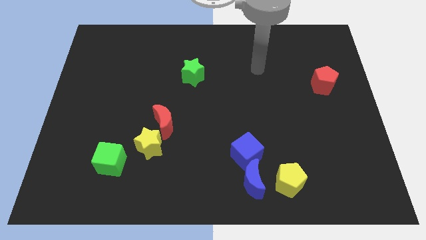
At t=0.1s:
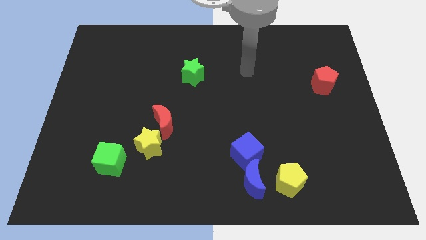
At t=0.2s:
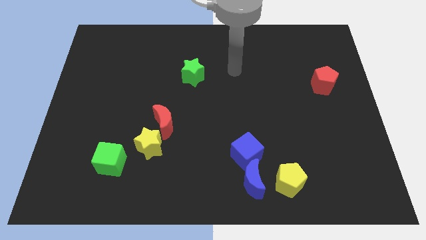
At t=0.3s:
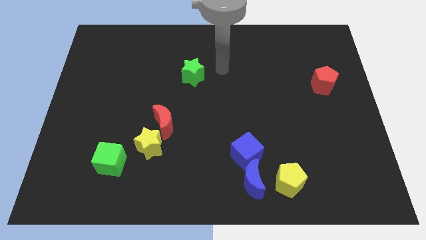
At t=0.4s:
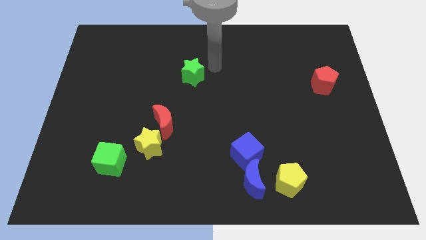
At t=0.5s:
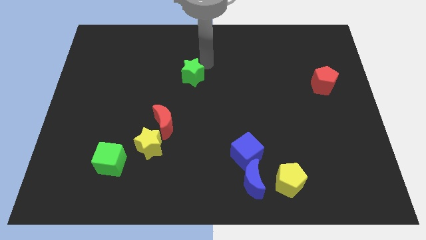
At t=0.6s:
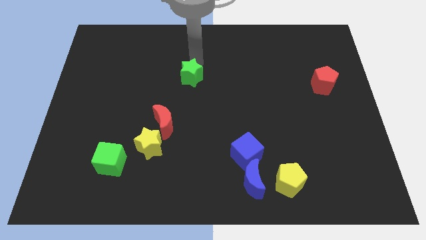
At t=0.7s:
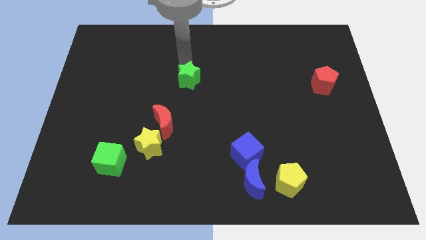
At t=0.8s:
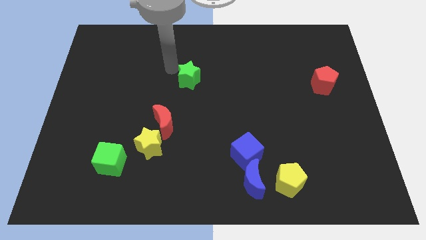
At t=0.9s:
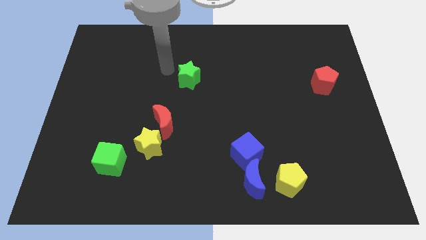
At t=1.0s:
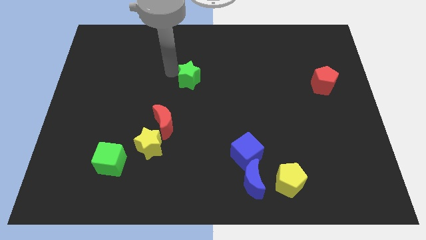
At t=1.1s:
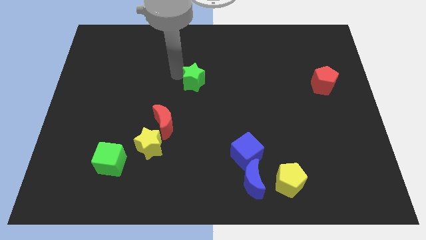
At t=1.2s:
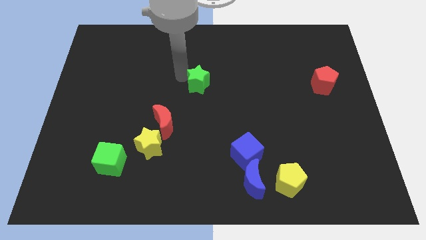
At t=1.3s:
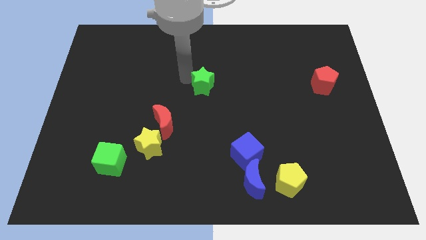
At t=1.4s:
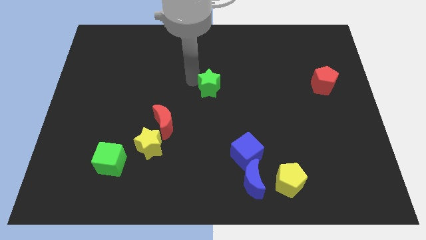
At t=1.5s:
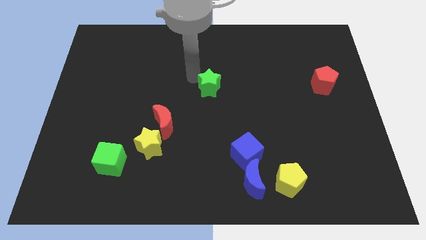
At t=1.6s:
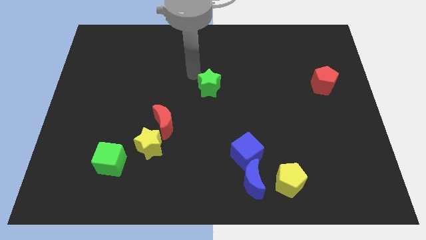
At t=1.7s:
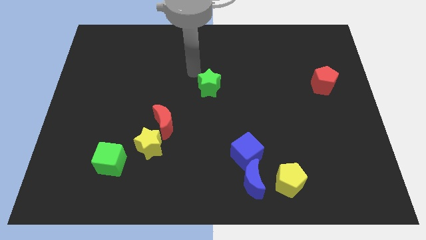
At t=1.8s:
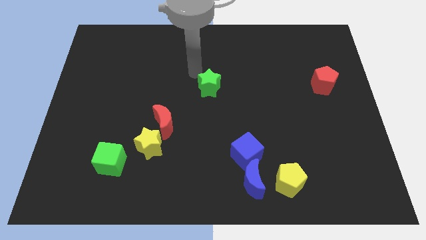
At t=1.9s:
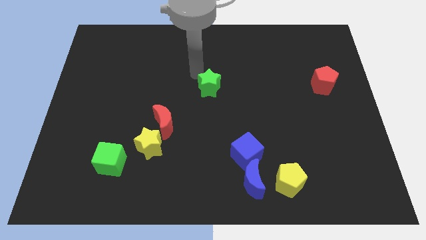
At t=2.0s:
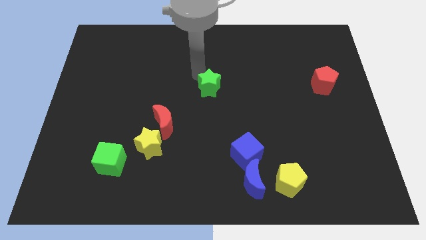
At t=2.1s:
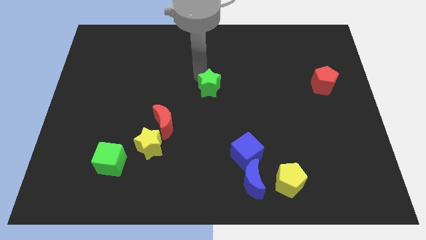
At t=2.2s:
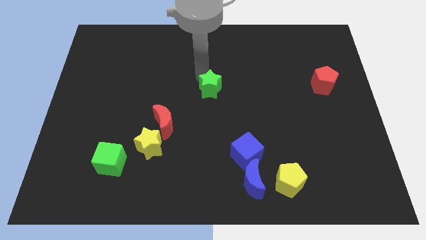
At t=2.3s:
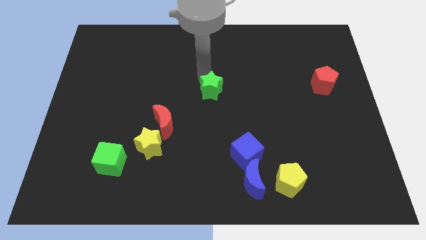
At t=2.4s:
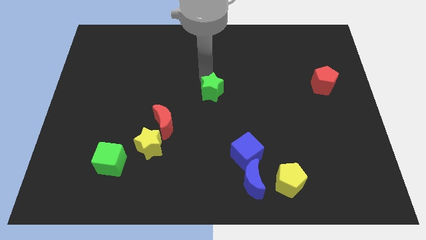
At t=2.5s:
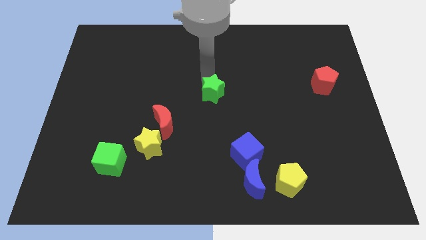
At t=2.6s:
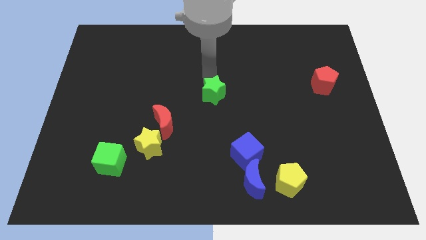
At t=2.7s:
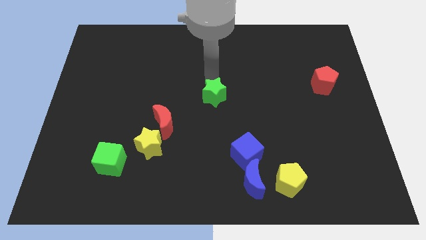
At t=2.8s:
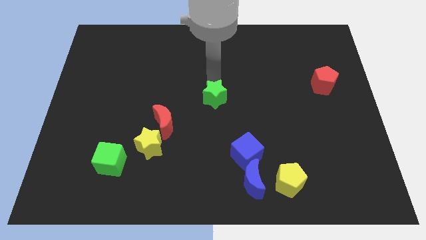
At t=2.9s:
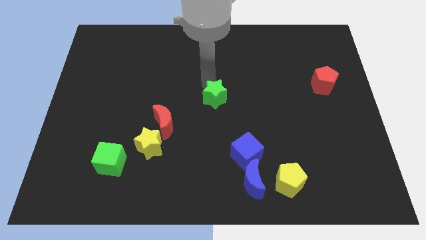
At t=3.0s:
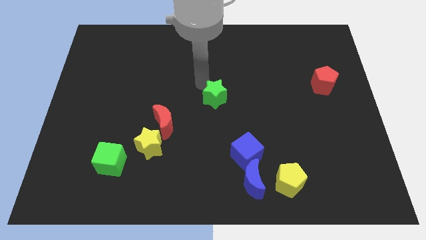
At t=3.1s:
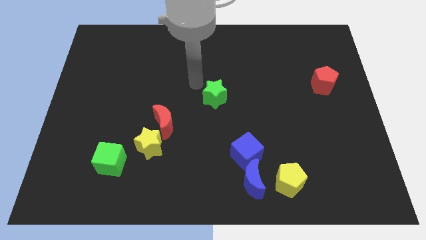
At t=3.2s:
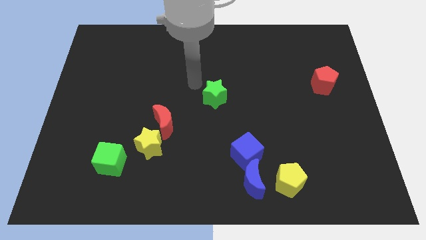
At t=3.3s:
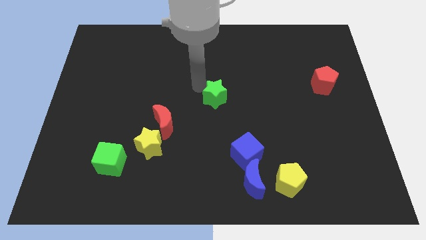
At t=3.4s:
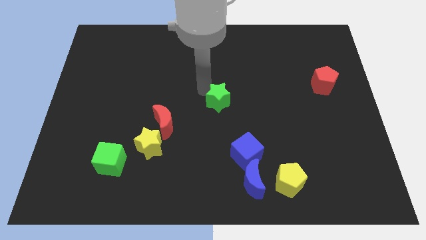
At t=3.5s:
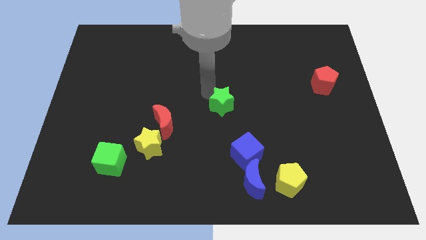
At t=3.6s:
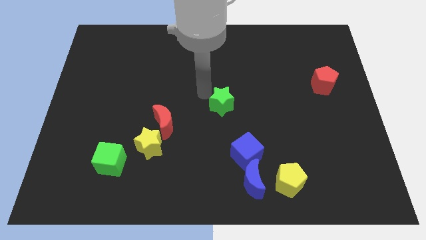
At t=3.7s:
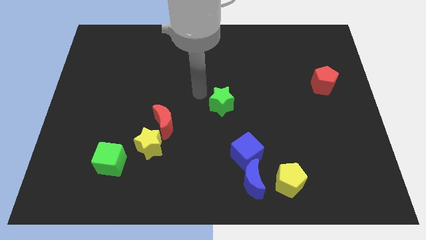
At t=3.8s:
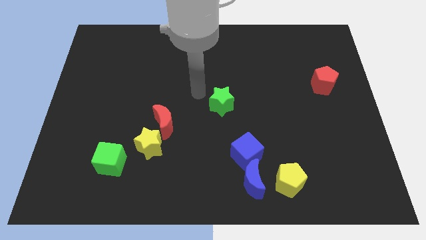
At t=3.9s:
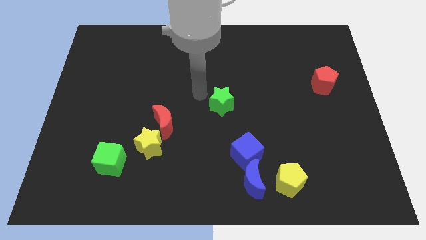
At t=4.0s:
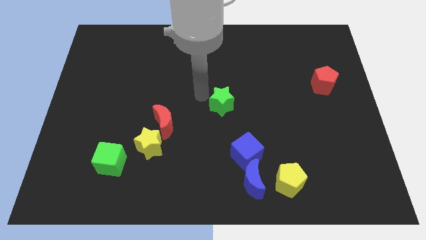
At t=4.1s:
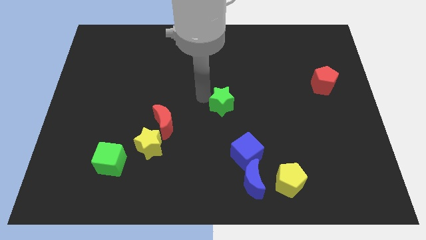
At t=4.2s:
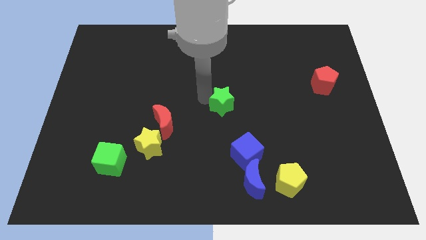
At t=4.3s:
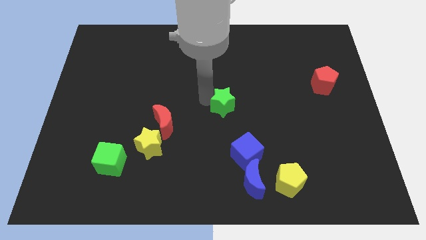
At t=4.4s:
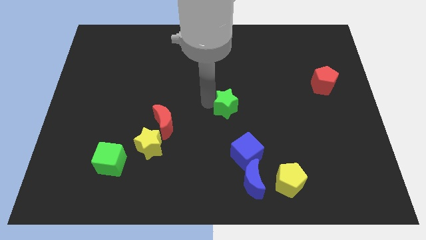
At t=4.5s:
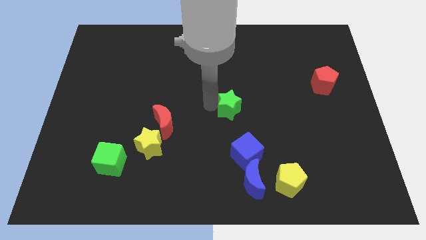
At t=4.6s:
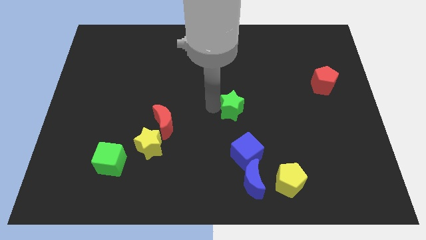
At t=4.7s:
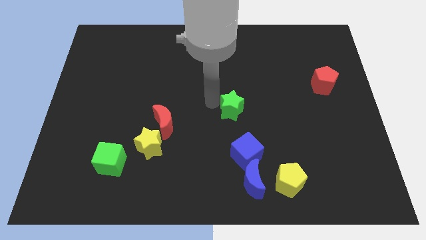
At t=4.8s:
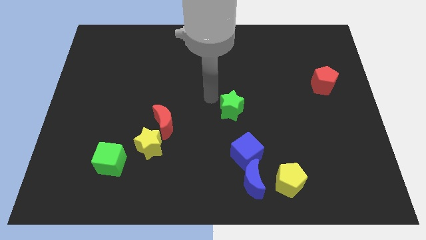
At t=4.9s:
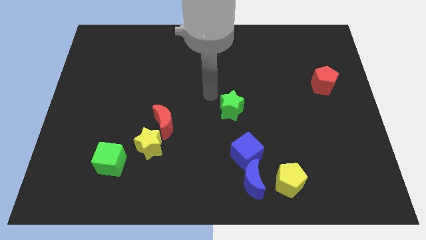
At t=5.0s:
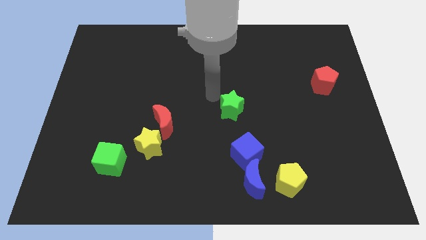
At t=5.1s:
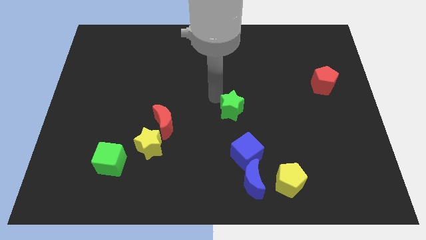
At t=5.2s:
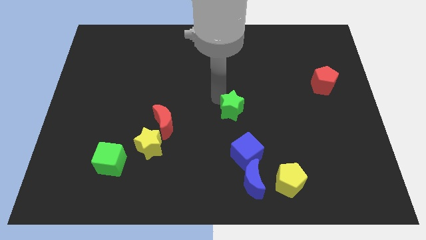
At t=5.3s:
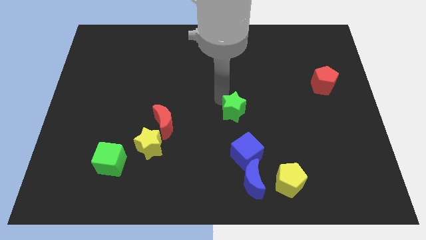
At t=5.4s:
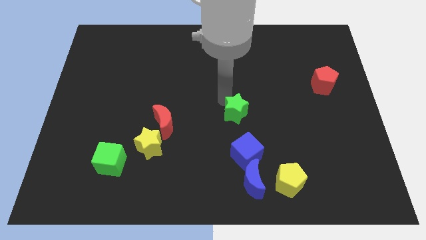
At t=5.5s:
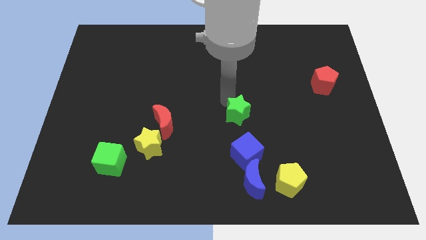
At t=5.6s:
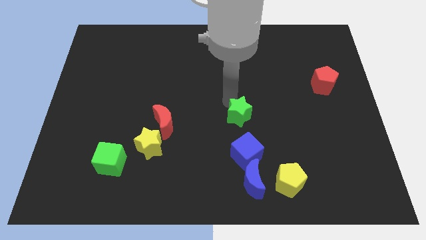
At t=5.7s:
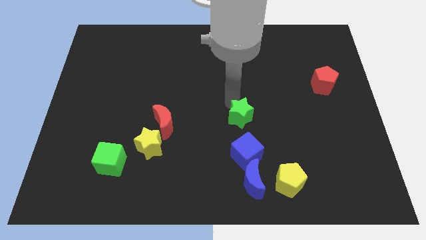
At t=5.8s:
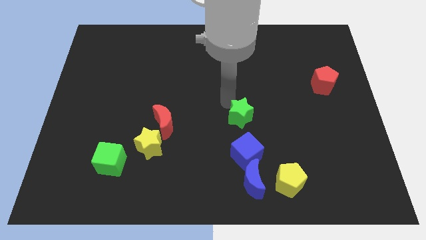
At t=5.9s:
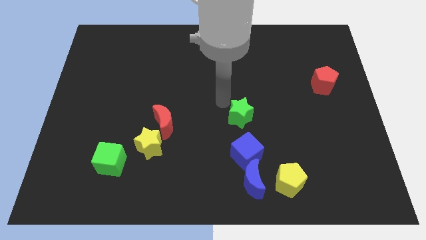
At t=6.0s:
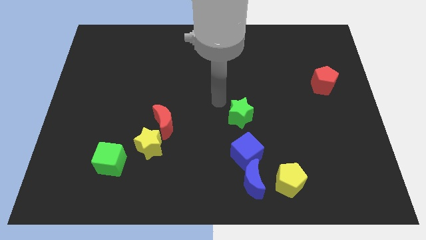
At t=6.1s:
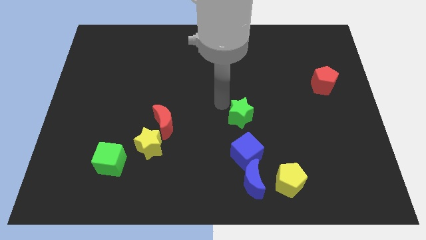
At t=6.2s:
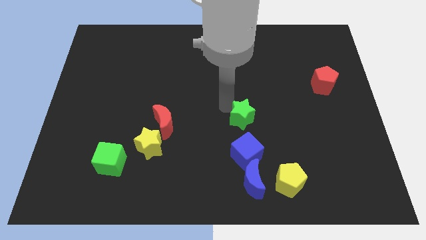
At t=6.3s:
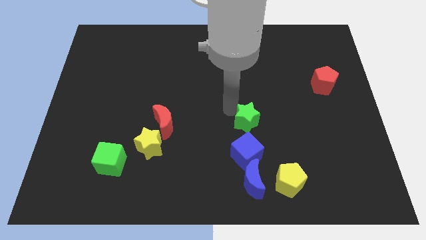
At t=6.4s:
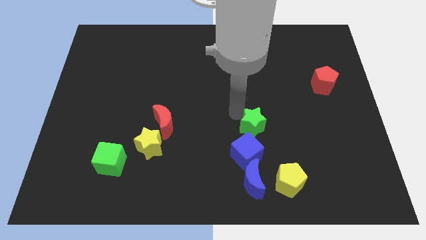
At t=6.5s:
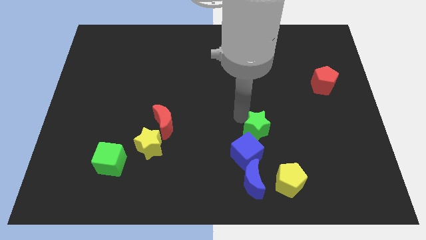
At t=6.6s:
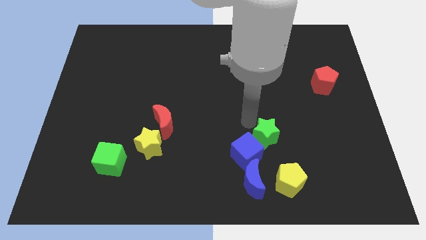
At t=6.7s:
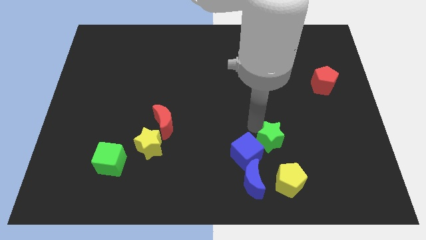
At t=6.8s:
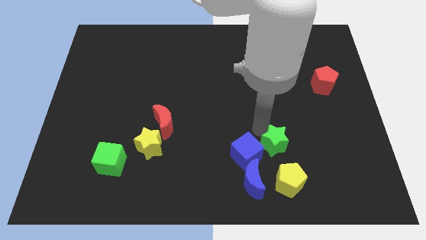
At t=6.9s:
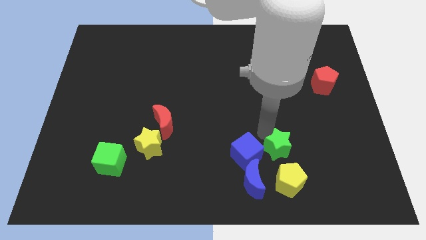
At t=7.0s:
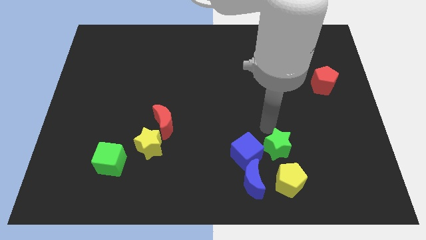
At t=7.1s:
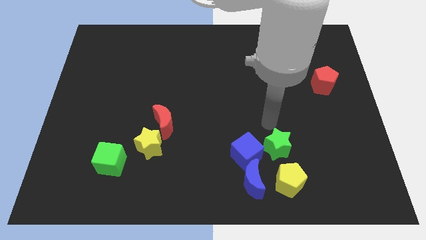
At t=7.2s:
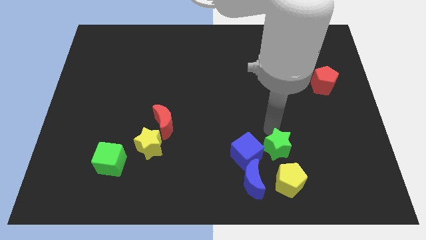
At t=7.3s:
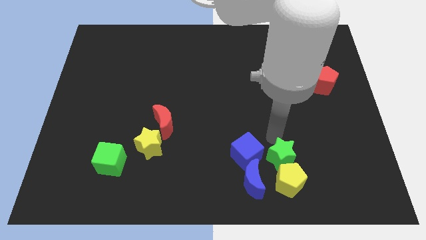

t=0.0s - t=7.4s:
move the green star close to the yellow pentagon
